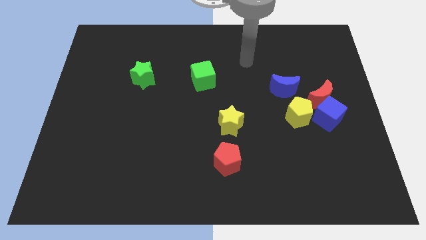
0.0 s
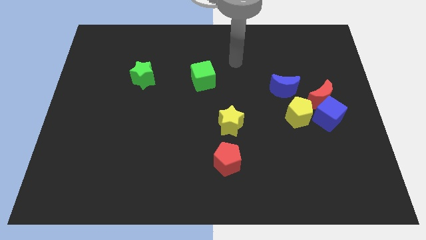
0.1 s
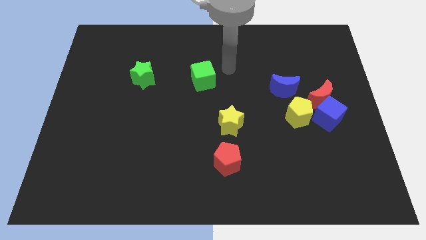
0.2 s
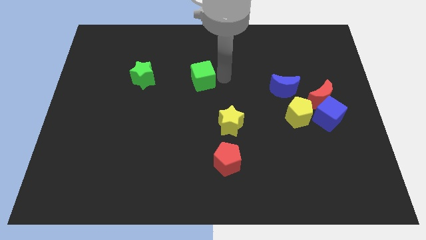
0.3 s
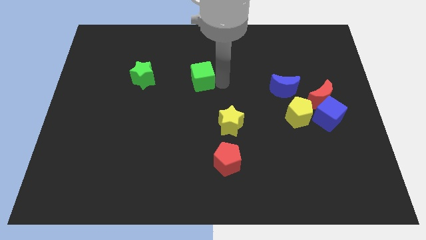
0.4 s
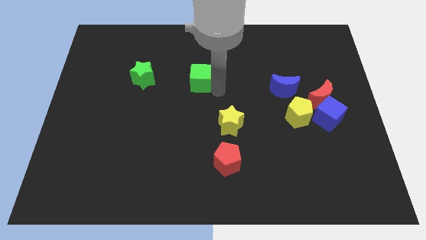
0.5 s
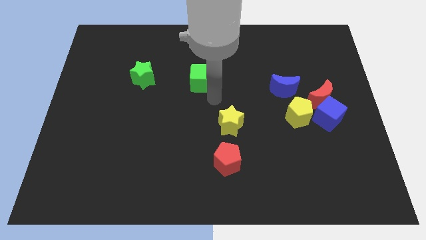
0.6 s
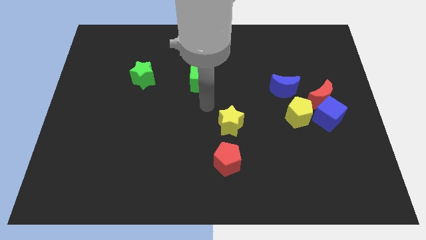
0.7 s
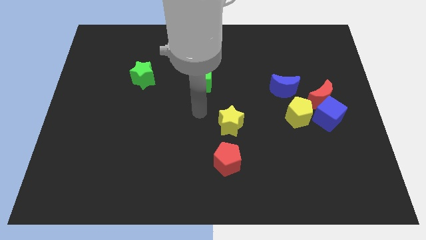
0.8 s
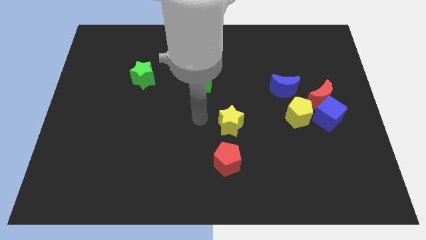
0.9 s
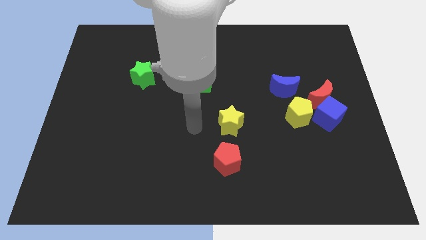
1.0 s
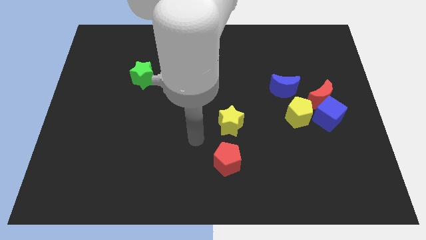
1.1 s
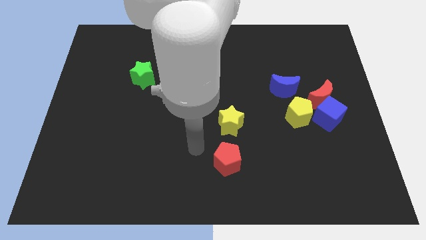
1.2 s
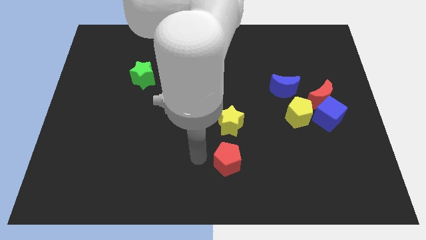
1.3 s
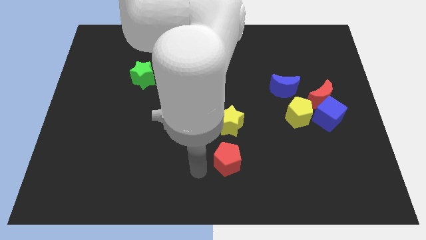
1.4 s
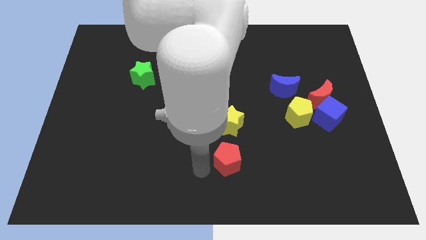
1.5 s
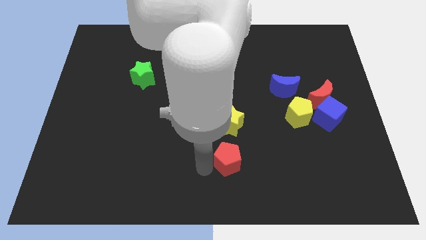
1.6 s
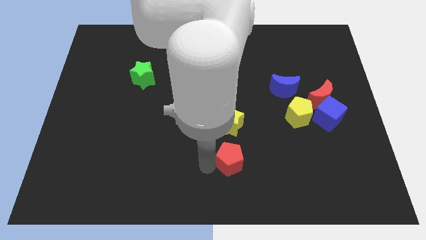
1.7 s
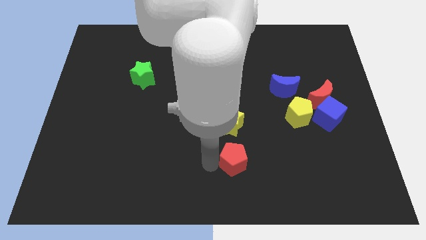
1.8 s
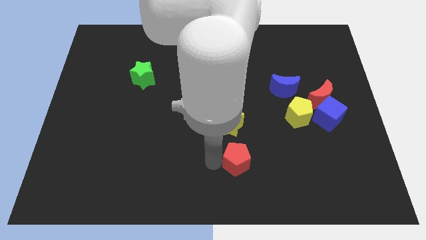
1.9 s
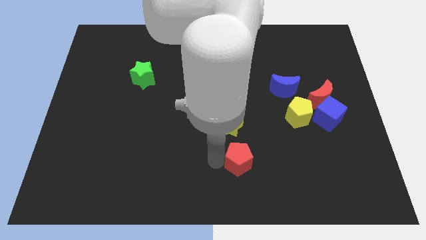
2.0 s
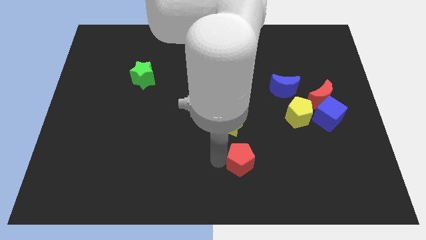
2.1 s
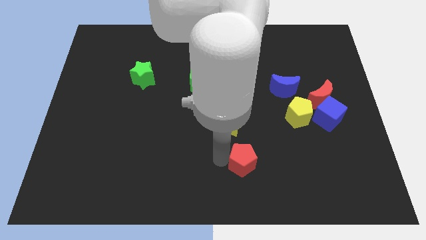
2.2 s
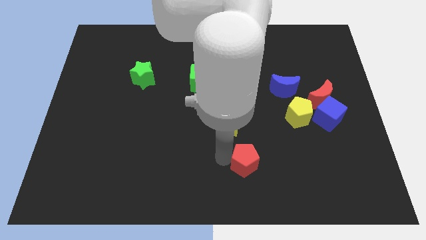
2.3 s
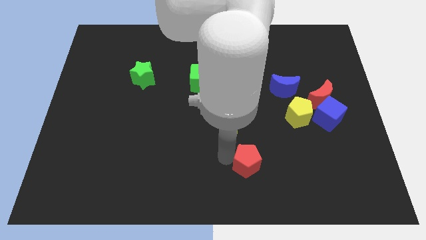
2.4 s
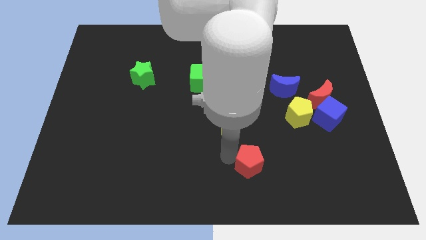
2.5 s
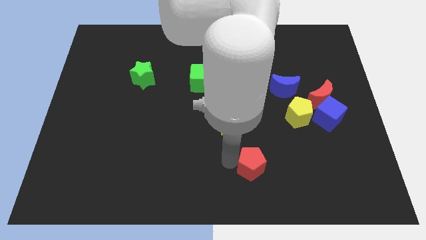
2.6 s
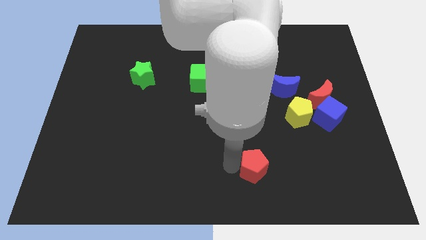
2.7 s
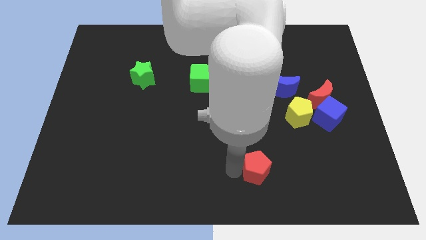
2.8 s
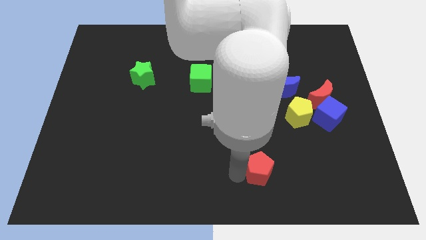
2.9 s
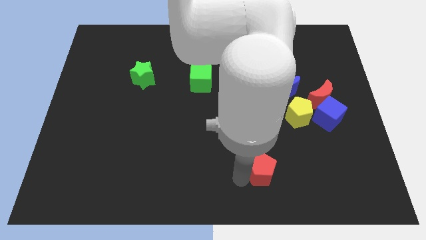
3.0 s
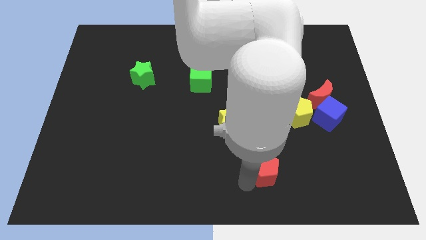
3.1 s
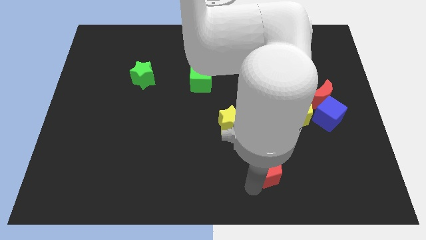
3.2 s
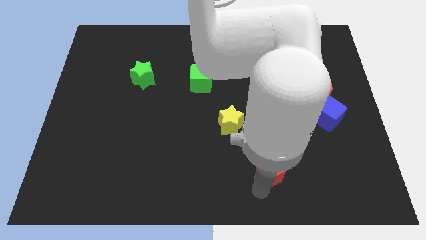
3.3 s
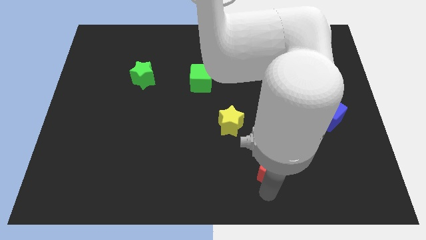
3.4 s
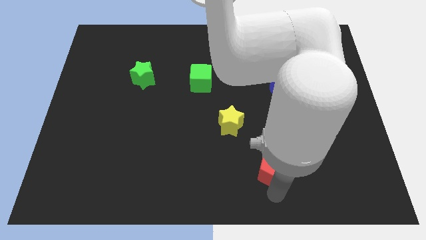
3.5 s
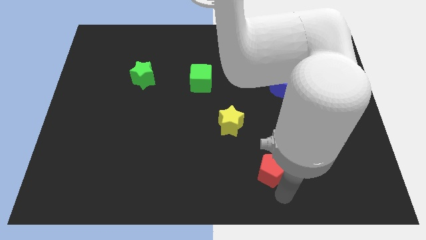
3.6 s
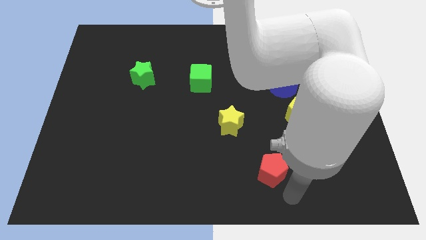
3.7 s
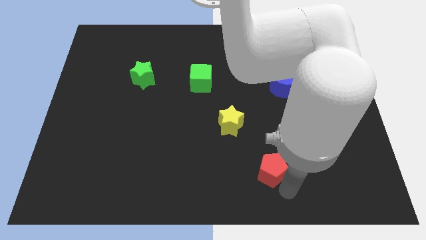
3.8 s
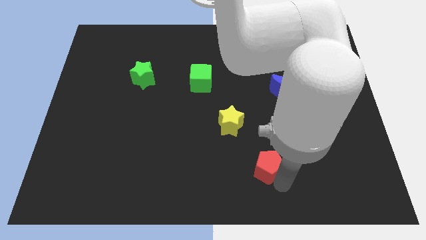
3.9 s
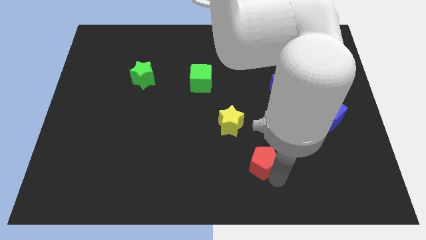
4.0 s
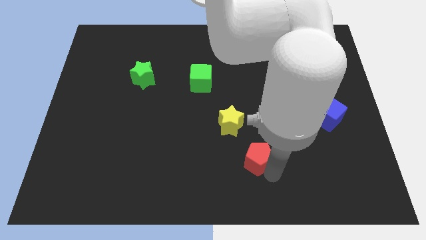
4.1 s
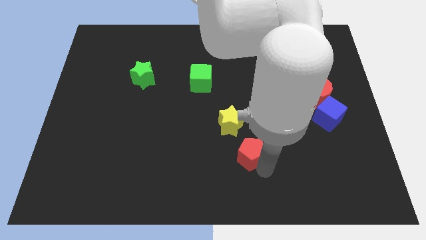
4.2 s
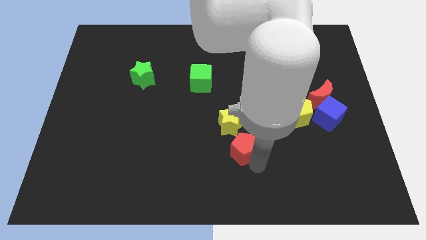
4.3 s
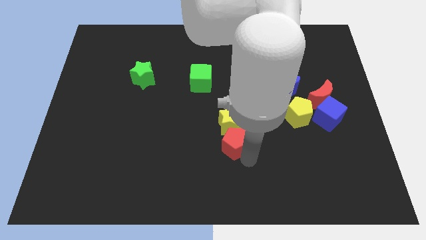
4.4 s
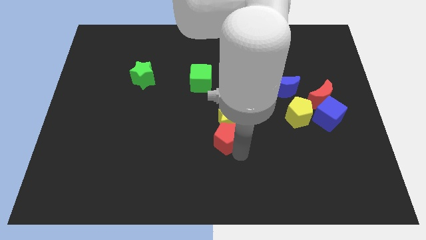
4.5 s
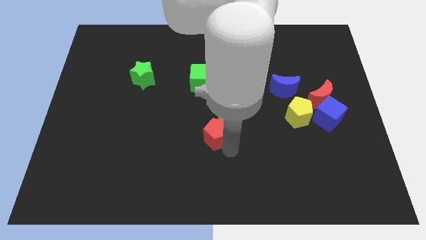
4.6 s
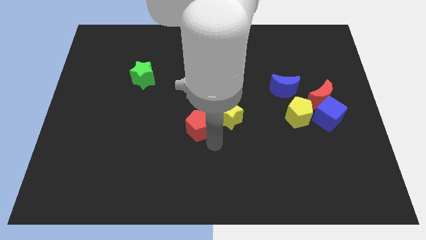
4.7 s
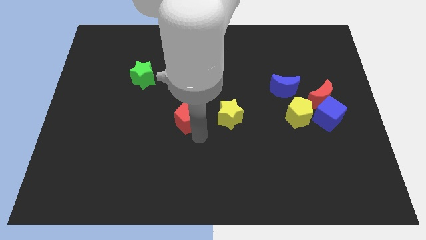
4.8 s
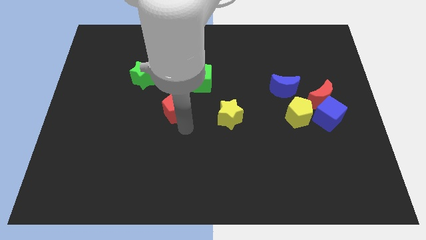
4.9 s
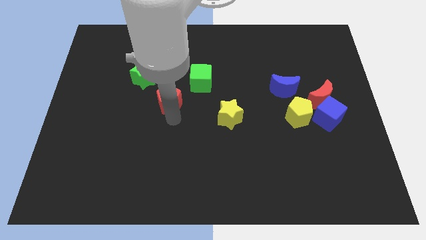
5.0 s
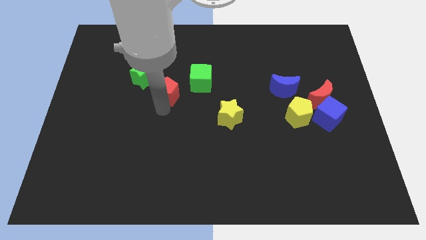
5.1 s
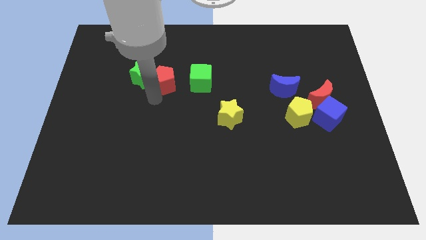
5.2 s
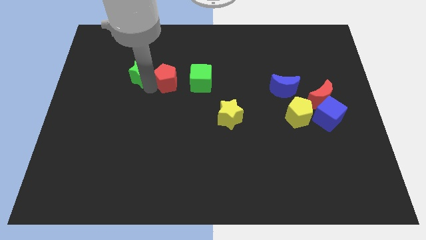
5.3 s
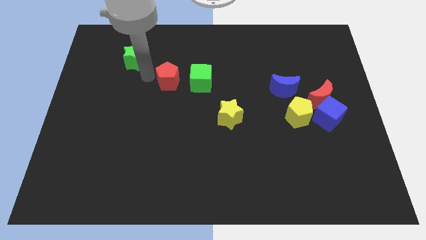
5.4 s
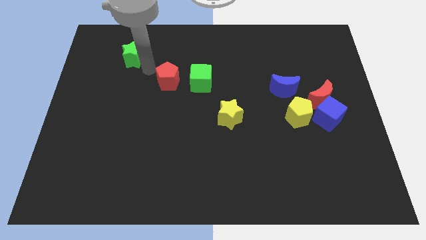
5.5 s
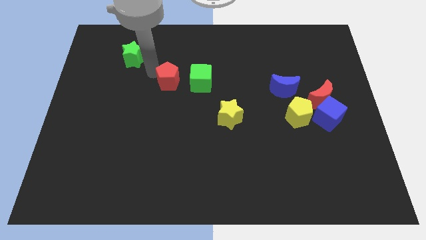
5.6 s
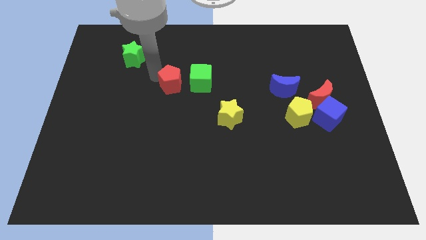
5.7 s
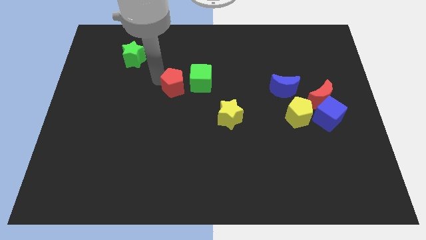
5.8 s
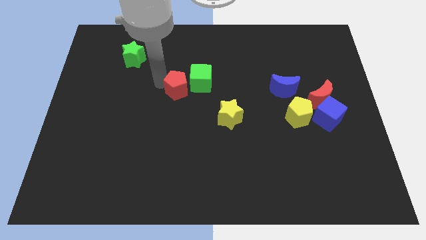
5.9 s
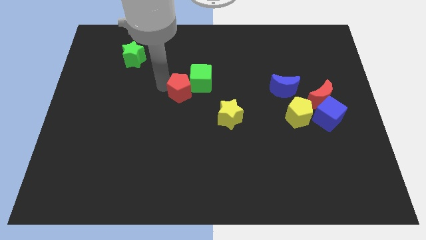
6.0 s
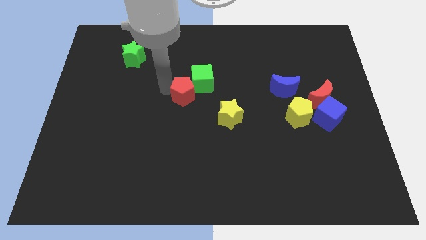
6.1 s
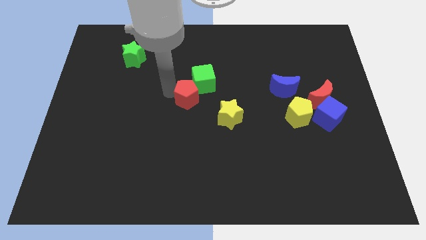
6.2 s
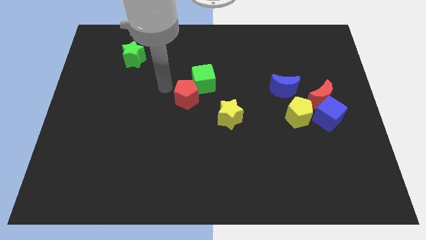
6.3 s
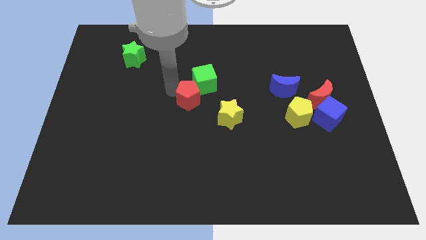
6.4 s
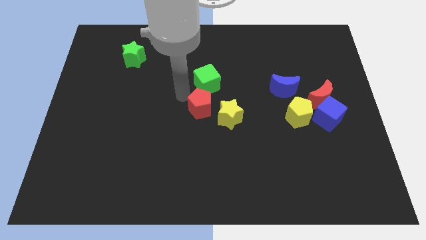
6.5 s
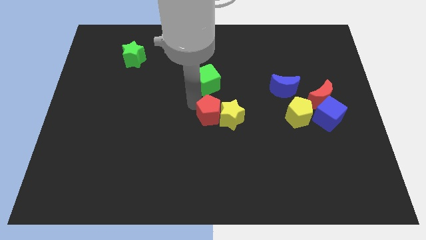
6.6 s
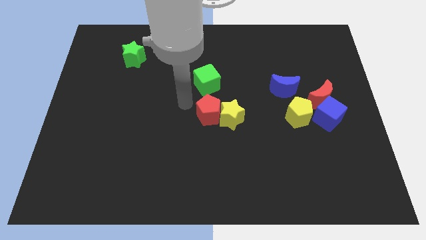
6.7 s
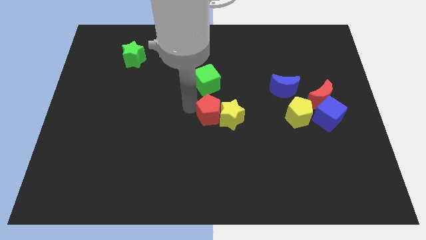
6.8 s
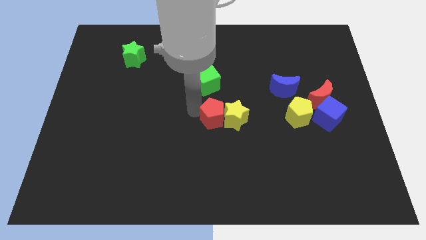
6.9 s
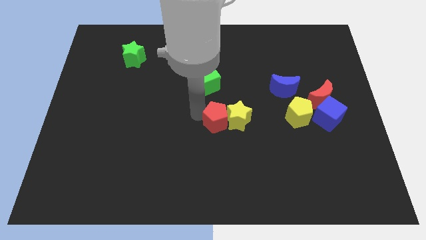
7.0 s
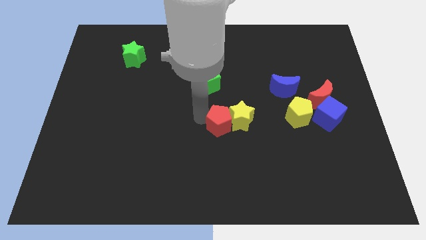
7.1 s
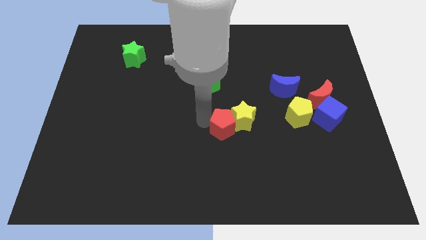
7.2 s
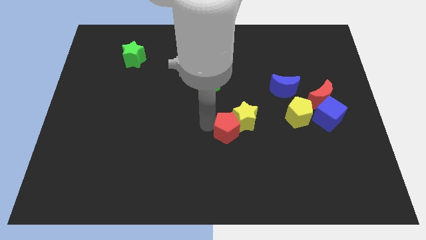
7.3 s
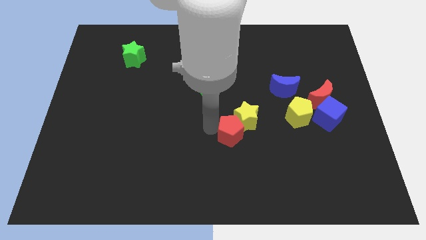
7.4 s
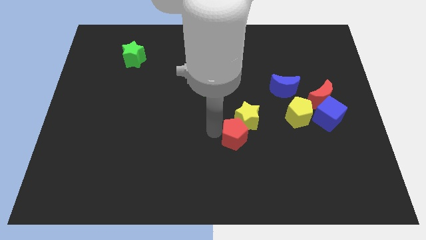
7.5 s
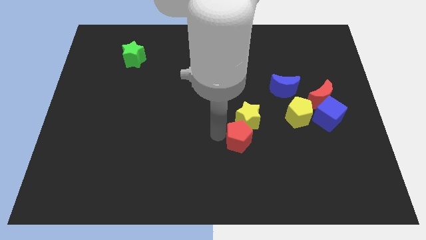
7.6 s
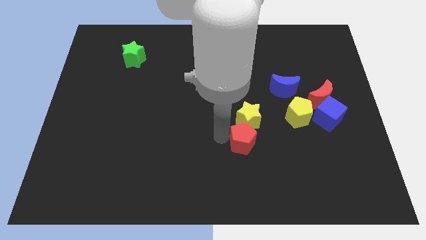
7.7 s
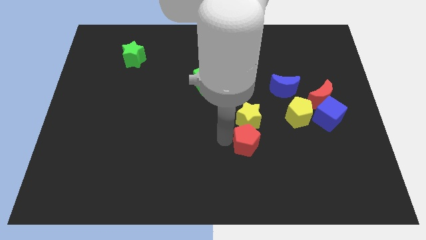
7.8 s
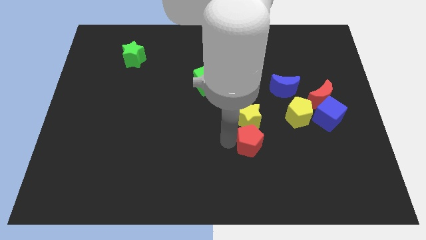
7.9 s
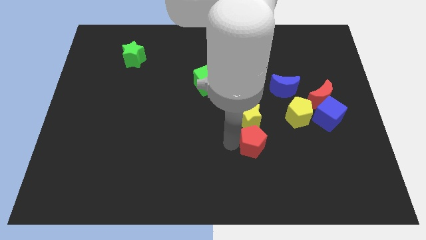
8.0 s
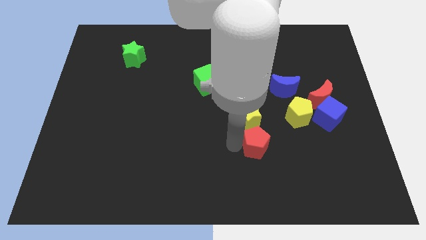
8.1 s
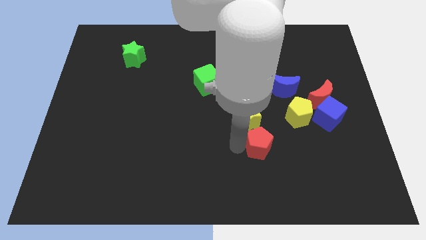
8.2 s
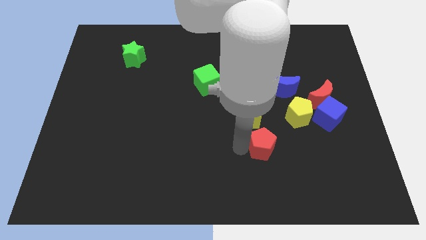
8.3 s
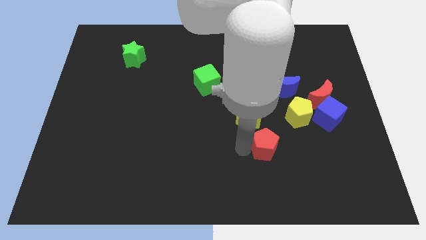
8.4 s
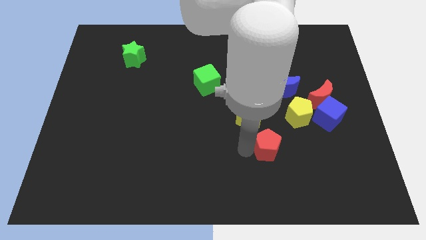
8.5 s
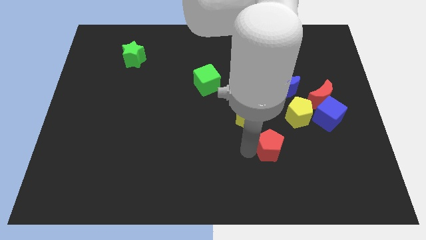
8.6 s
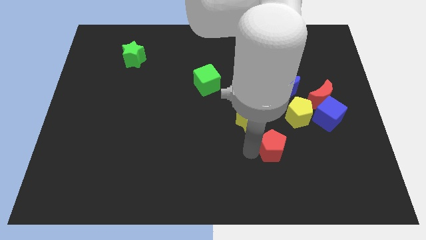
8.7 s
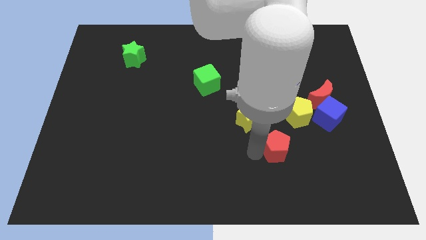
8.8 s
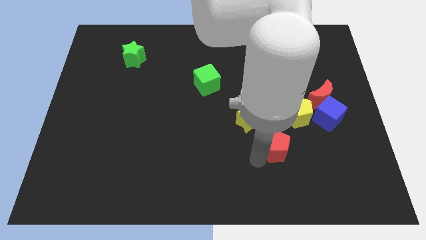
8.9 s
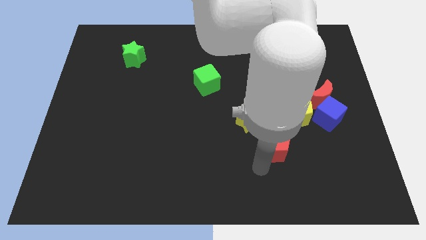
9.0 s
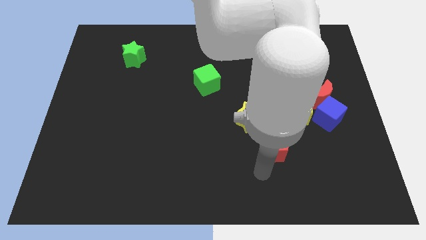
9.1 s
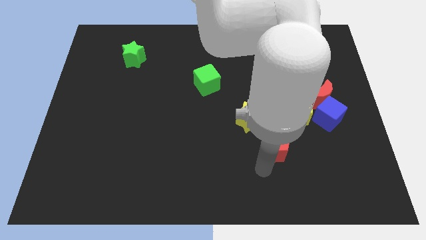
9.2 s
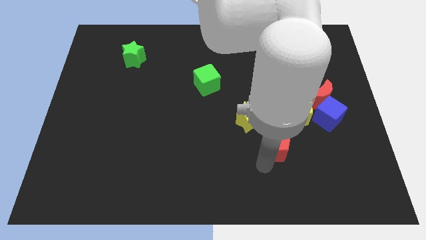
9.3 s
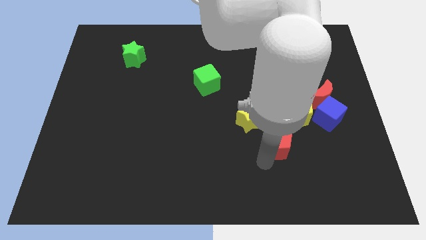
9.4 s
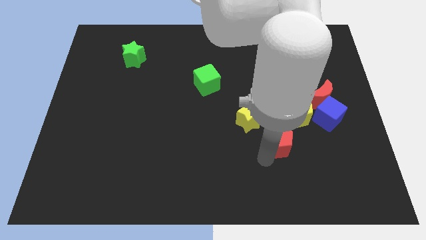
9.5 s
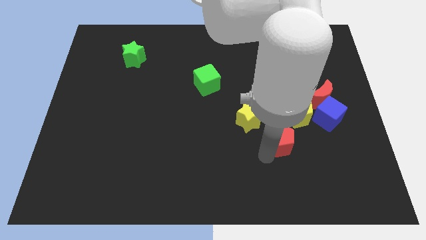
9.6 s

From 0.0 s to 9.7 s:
slide the red pentagon below the blue moon
